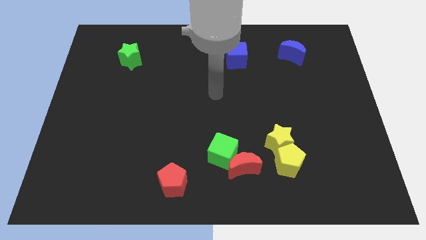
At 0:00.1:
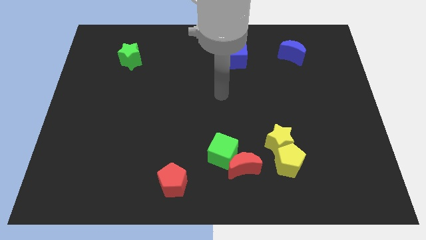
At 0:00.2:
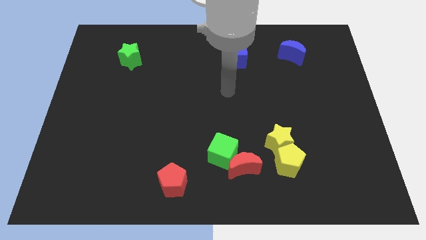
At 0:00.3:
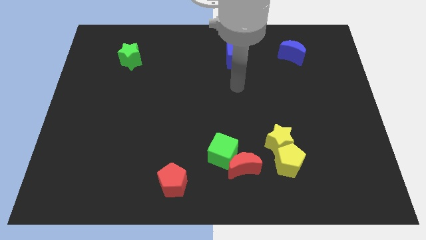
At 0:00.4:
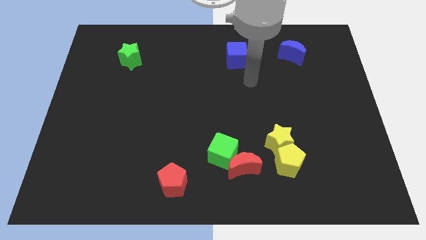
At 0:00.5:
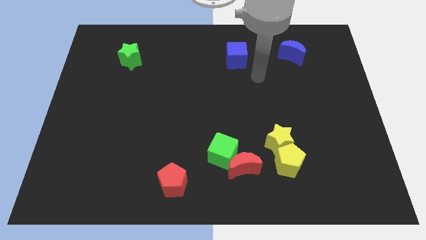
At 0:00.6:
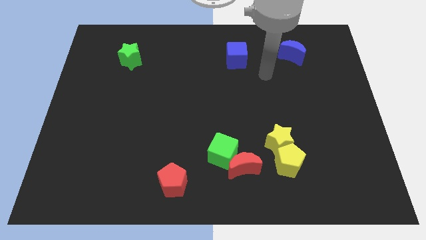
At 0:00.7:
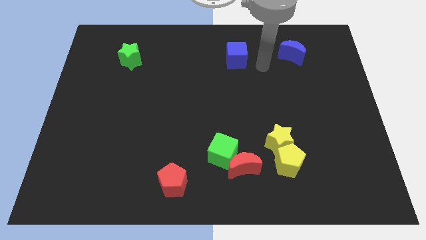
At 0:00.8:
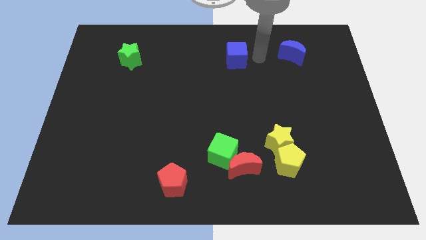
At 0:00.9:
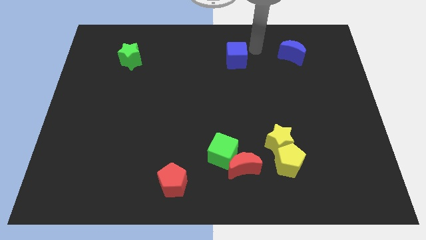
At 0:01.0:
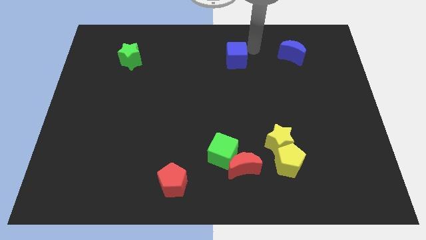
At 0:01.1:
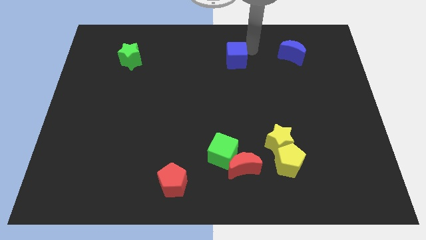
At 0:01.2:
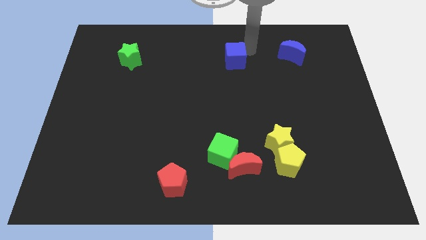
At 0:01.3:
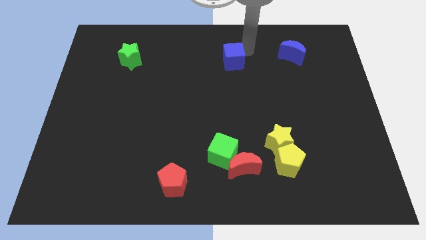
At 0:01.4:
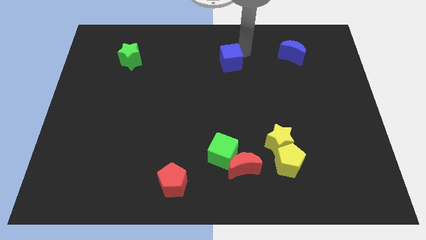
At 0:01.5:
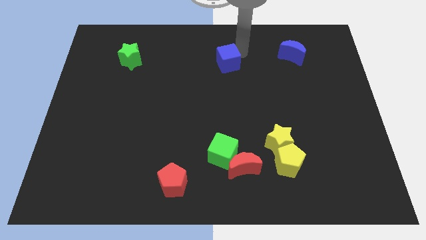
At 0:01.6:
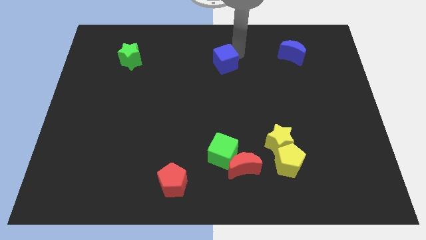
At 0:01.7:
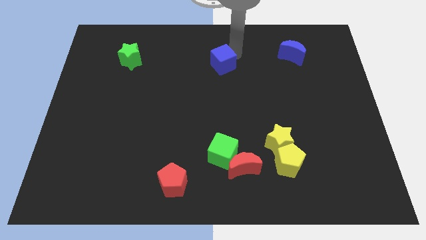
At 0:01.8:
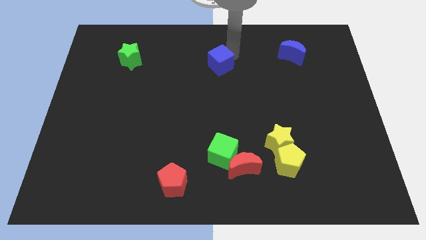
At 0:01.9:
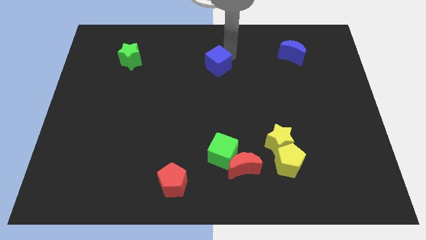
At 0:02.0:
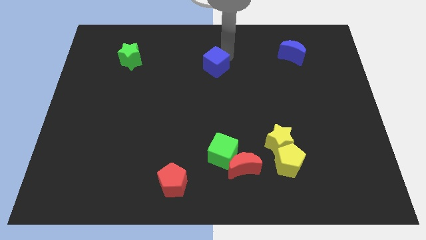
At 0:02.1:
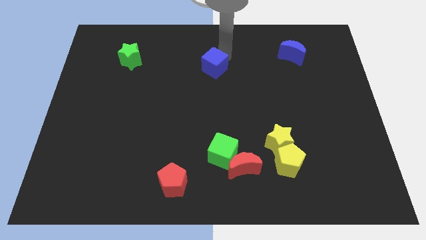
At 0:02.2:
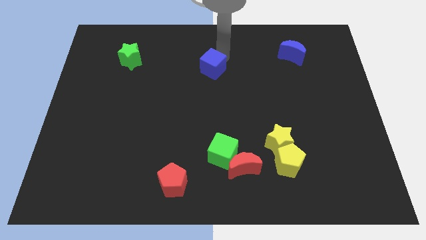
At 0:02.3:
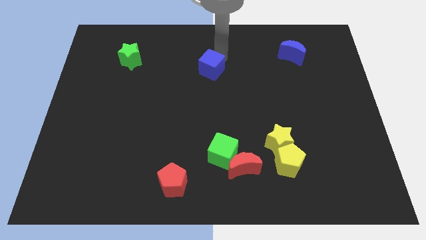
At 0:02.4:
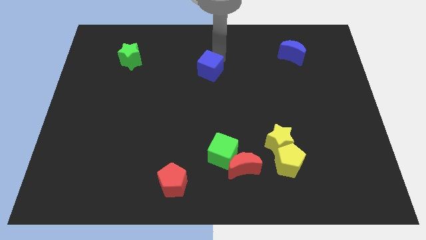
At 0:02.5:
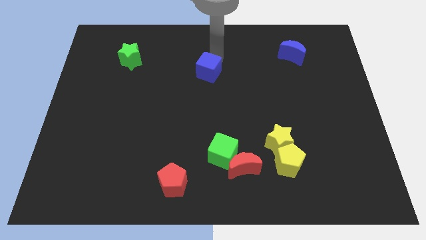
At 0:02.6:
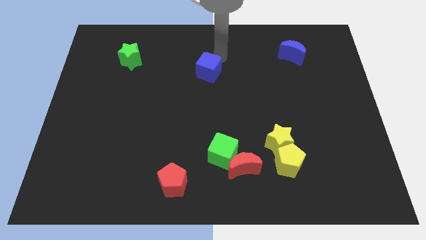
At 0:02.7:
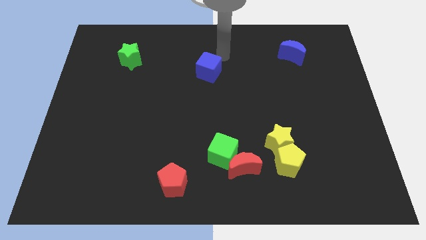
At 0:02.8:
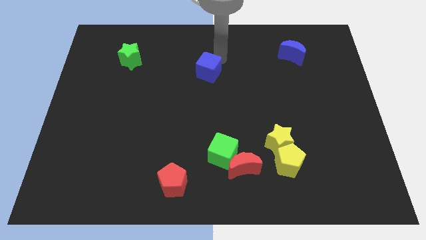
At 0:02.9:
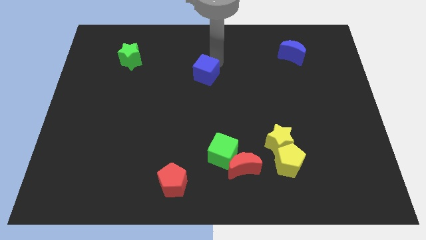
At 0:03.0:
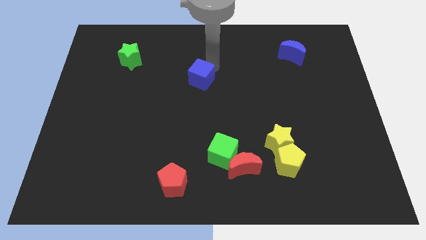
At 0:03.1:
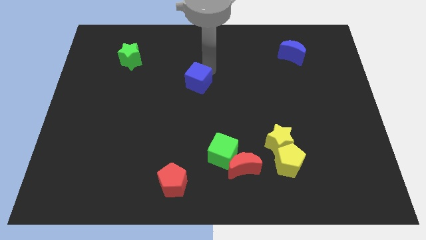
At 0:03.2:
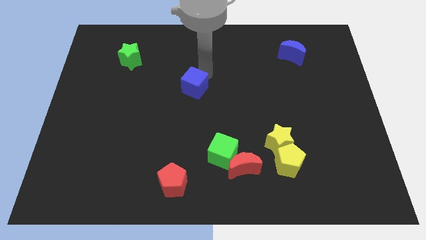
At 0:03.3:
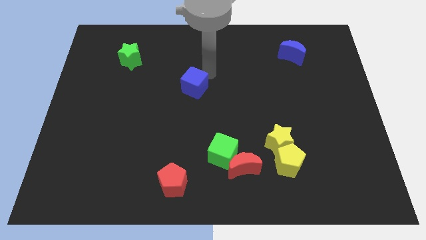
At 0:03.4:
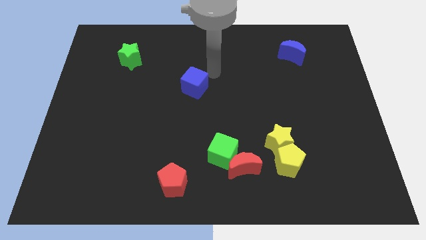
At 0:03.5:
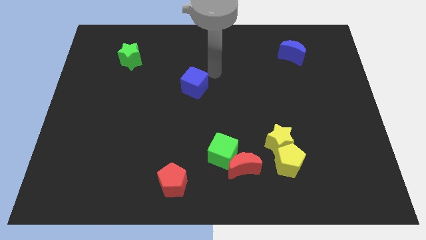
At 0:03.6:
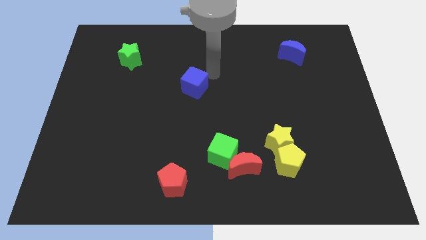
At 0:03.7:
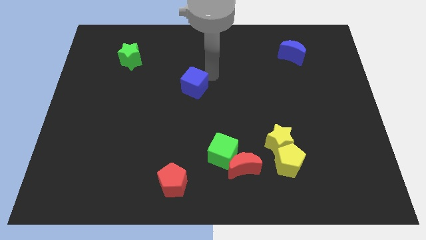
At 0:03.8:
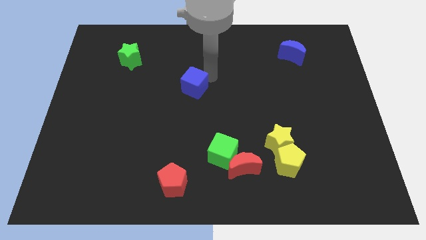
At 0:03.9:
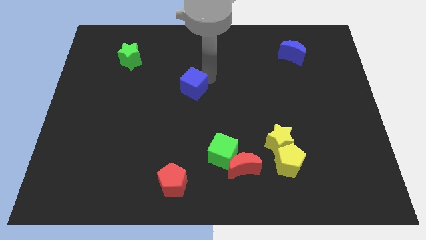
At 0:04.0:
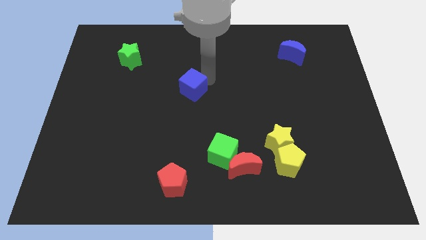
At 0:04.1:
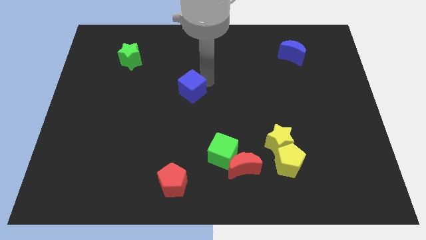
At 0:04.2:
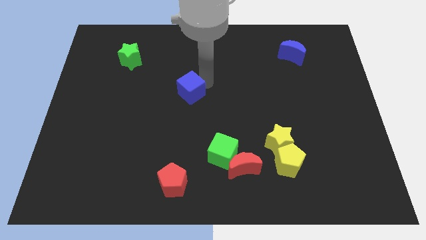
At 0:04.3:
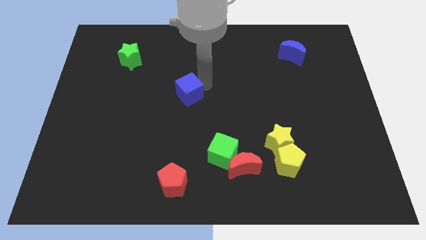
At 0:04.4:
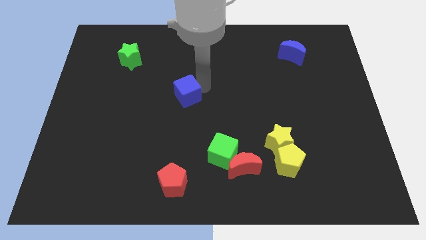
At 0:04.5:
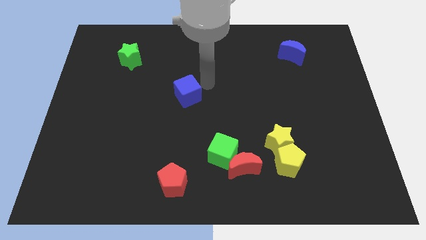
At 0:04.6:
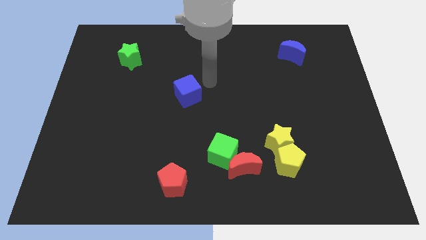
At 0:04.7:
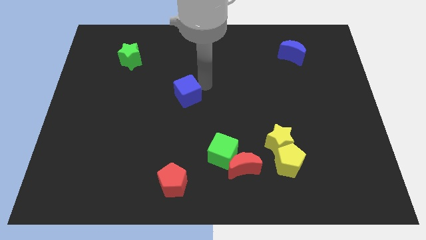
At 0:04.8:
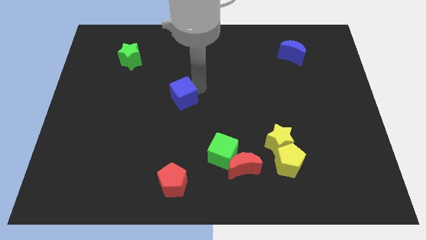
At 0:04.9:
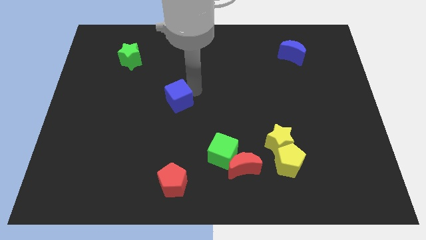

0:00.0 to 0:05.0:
push the blue cube downwards and left

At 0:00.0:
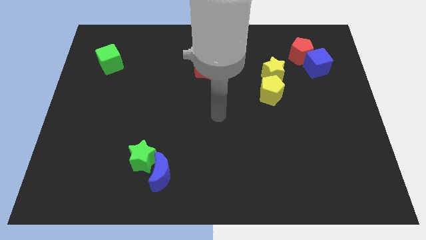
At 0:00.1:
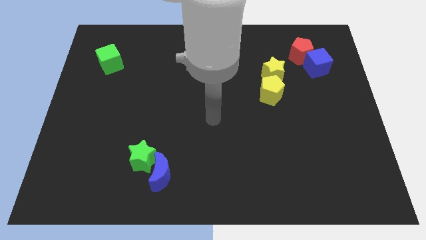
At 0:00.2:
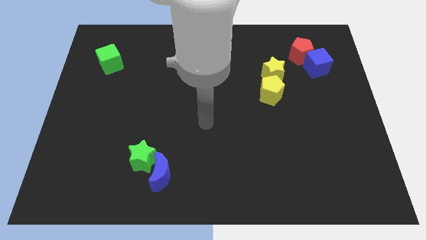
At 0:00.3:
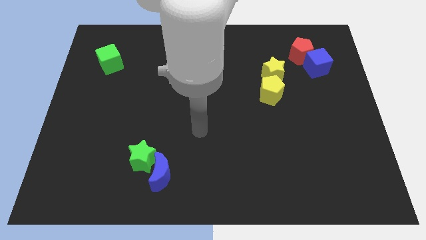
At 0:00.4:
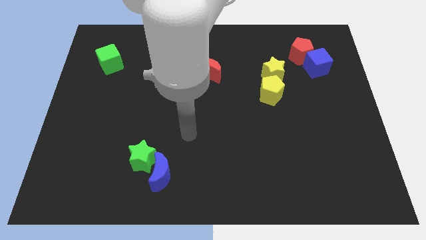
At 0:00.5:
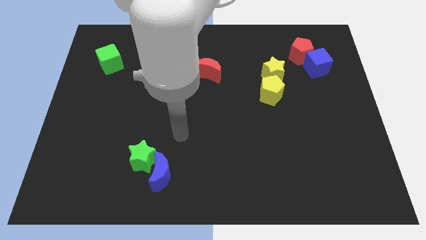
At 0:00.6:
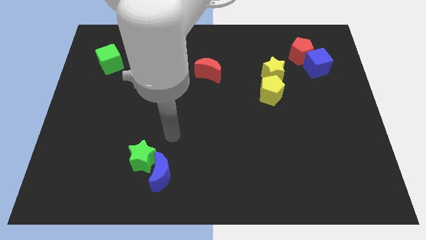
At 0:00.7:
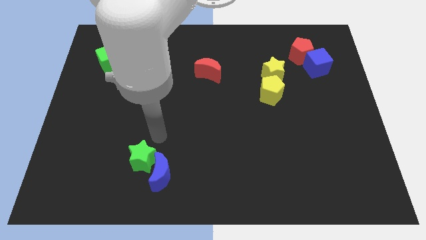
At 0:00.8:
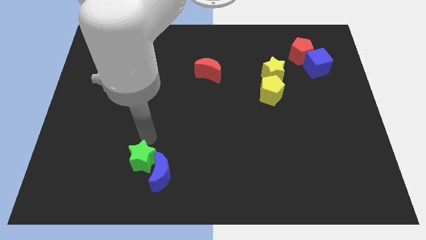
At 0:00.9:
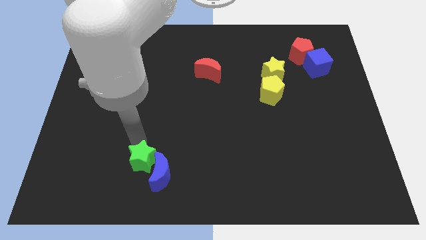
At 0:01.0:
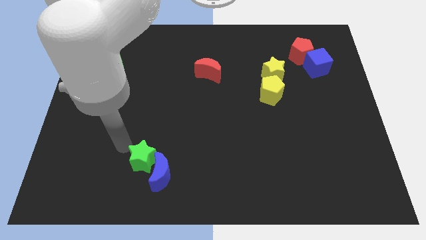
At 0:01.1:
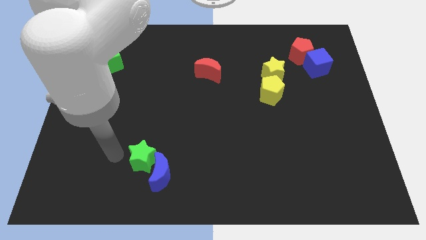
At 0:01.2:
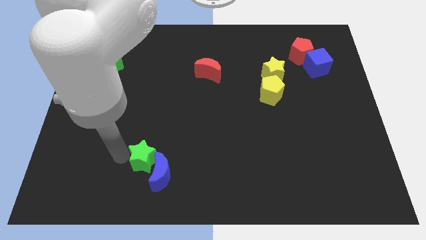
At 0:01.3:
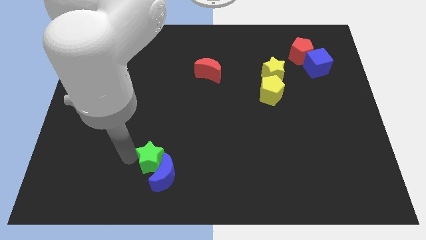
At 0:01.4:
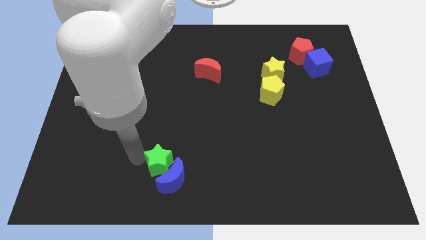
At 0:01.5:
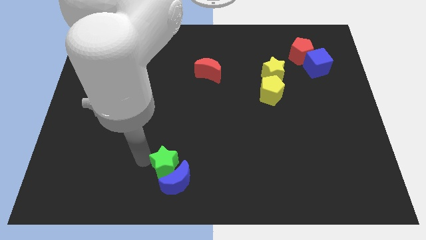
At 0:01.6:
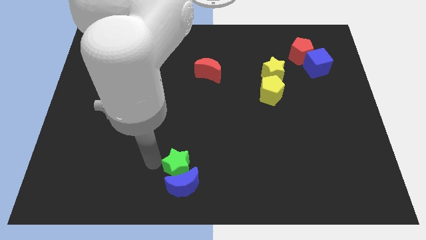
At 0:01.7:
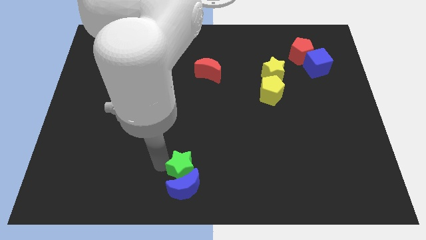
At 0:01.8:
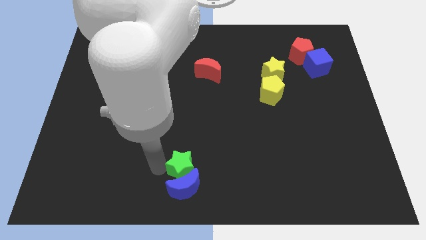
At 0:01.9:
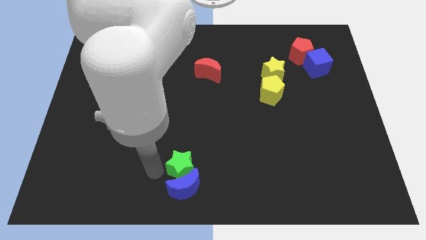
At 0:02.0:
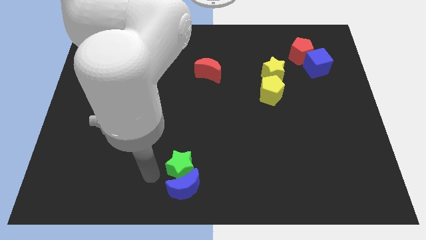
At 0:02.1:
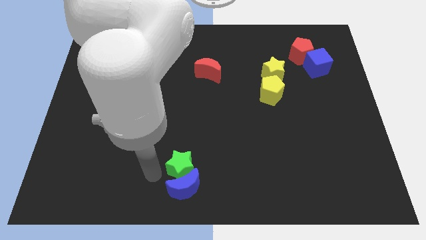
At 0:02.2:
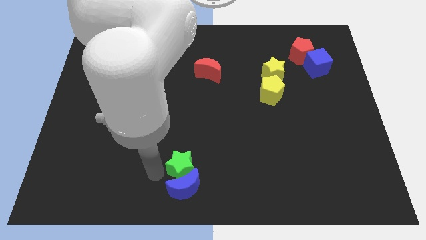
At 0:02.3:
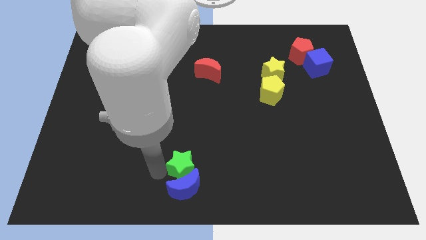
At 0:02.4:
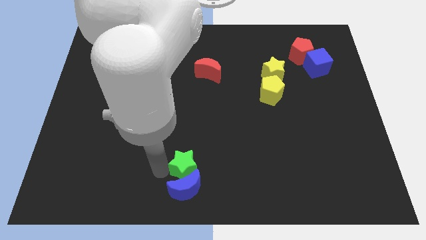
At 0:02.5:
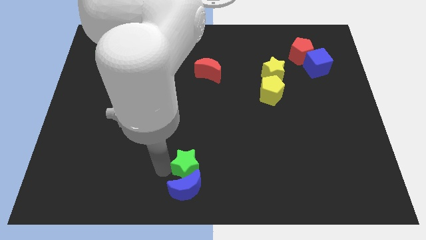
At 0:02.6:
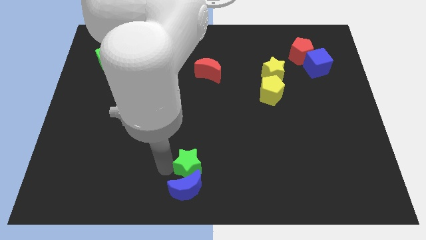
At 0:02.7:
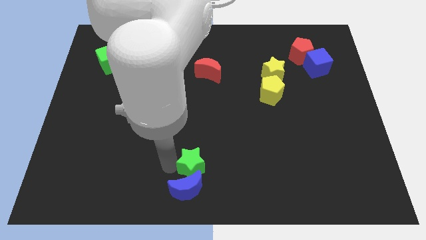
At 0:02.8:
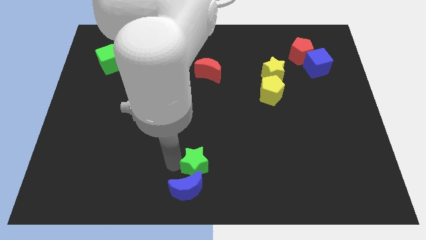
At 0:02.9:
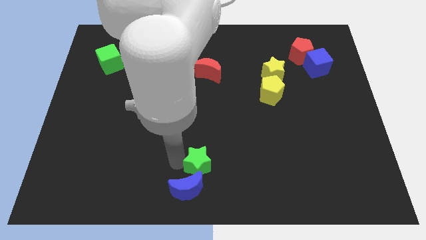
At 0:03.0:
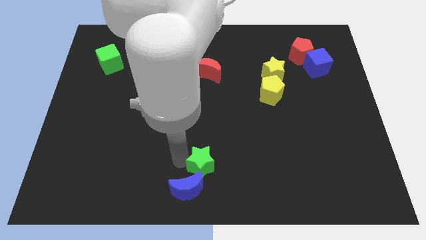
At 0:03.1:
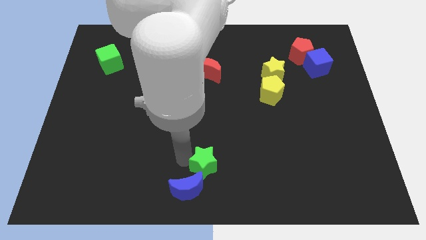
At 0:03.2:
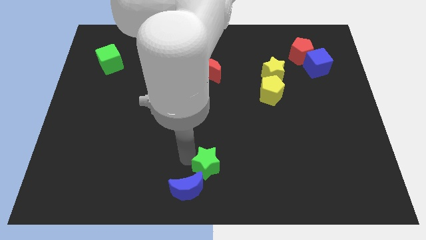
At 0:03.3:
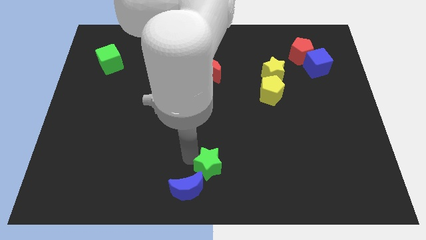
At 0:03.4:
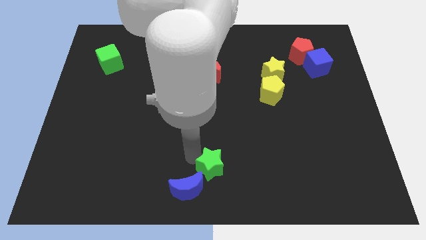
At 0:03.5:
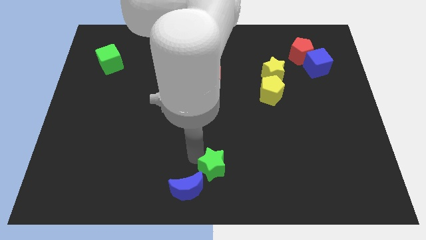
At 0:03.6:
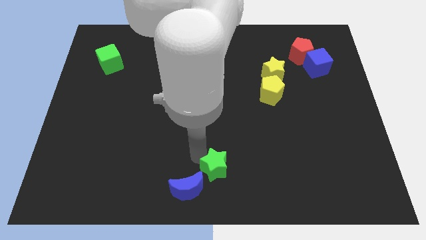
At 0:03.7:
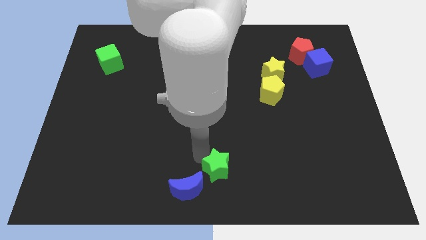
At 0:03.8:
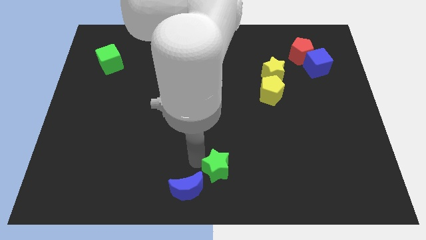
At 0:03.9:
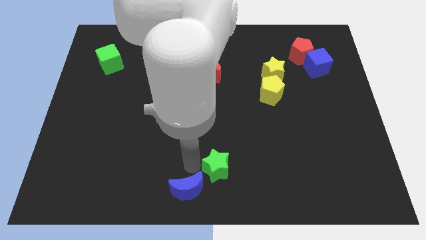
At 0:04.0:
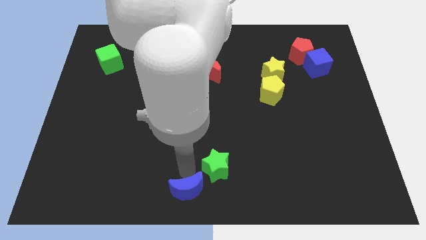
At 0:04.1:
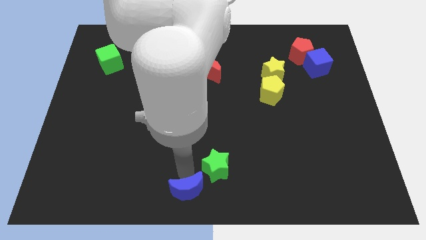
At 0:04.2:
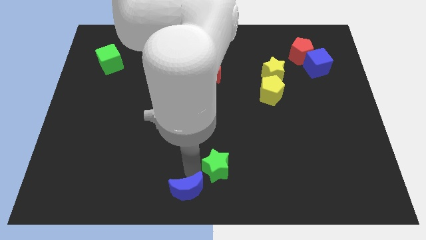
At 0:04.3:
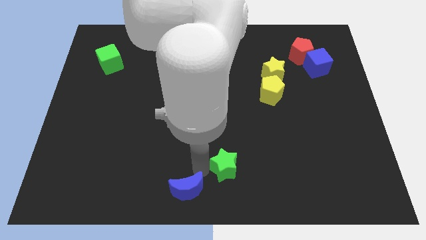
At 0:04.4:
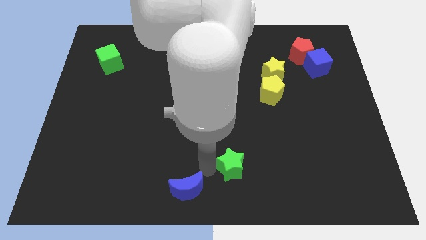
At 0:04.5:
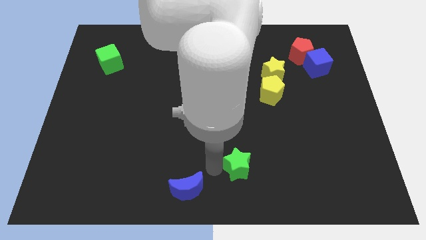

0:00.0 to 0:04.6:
move the green star to the right
